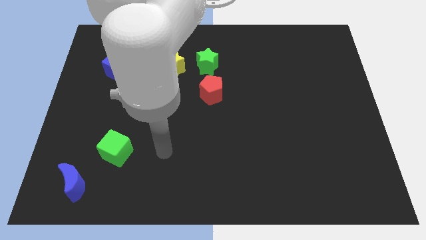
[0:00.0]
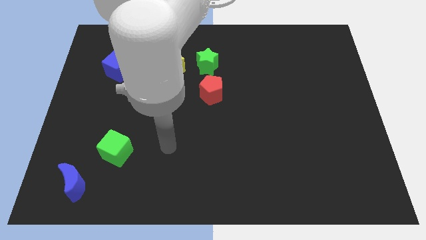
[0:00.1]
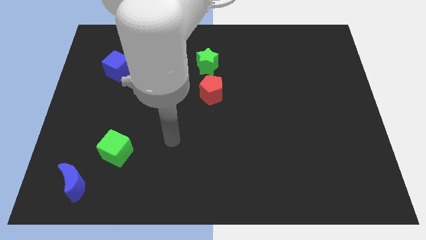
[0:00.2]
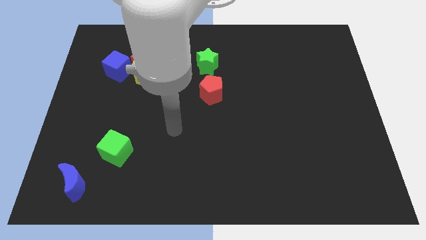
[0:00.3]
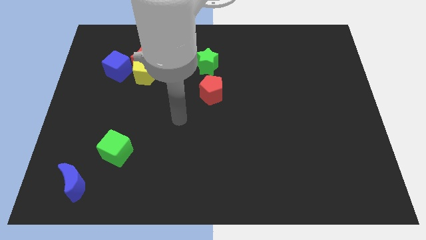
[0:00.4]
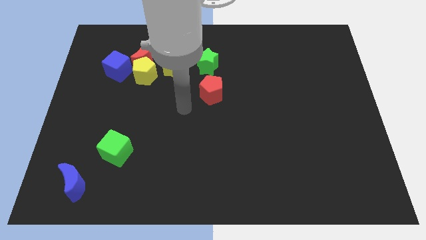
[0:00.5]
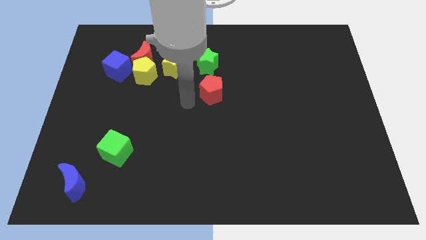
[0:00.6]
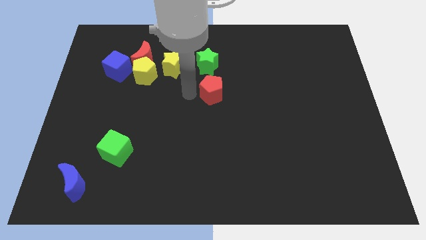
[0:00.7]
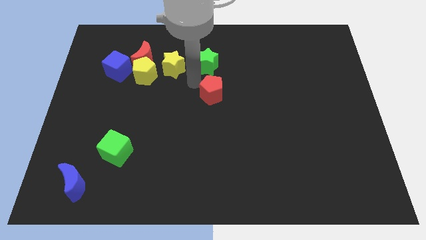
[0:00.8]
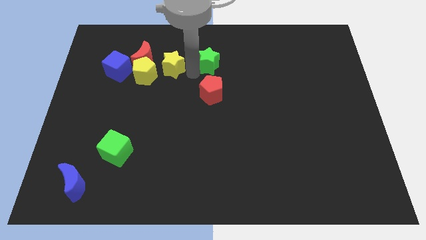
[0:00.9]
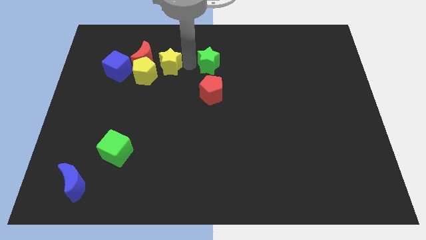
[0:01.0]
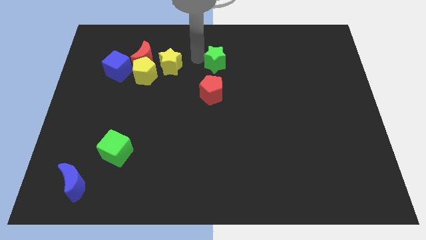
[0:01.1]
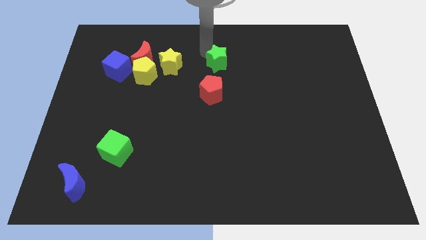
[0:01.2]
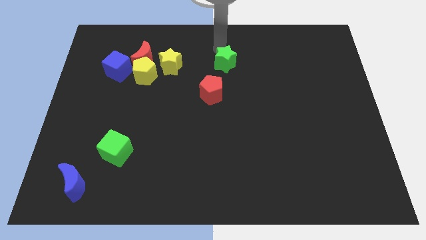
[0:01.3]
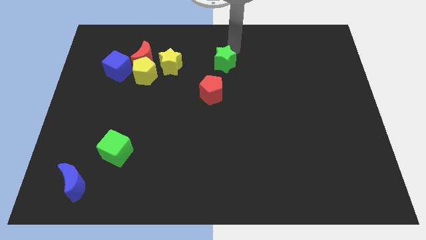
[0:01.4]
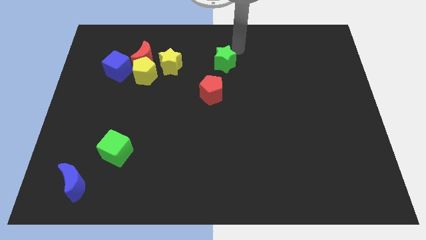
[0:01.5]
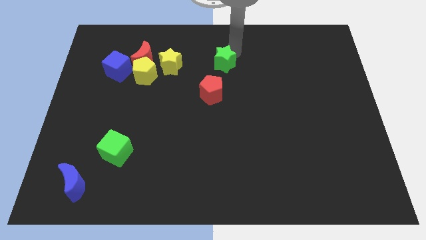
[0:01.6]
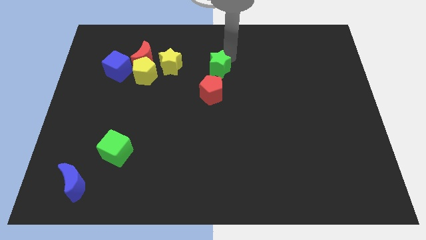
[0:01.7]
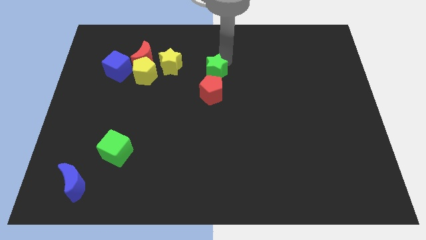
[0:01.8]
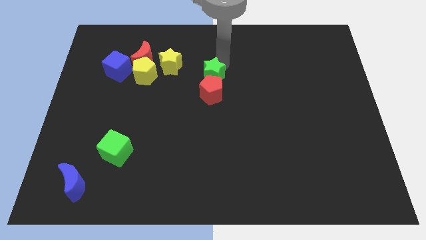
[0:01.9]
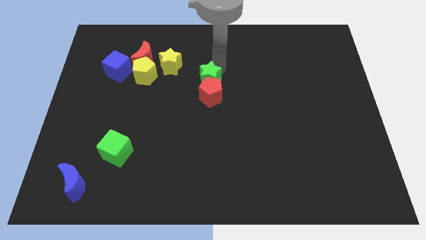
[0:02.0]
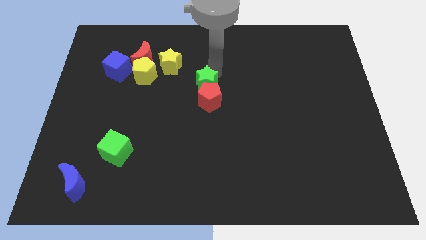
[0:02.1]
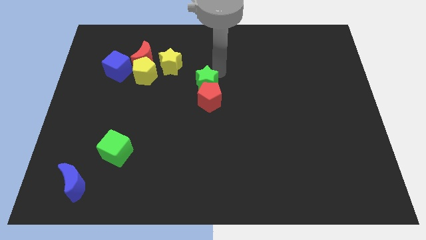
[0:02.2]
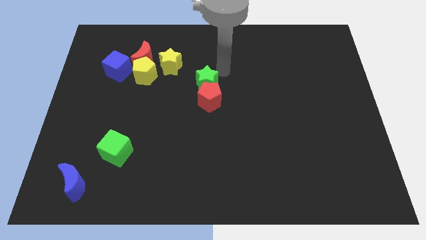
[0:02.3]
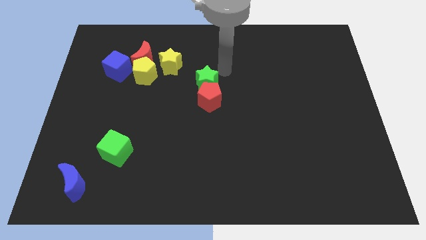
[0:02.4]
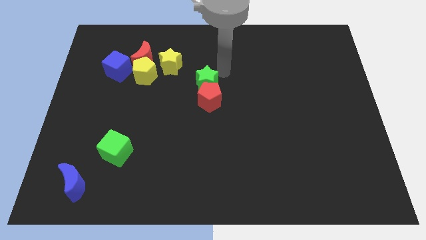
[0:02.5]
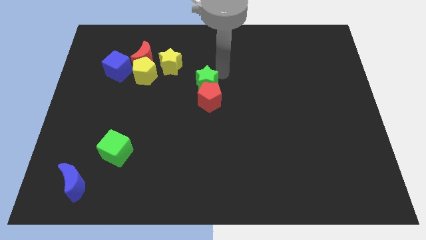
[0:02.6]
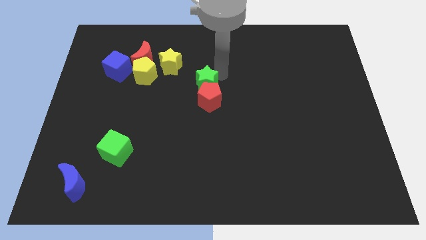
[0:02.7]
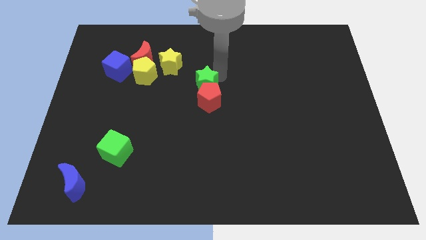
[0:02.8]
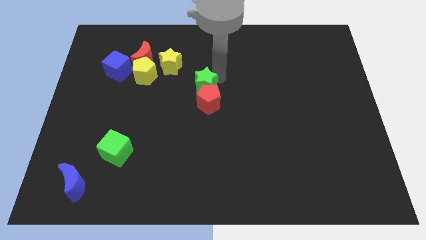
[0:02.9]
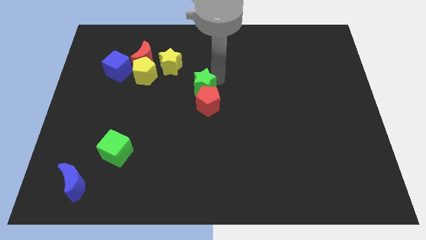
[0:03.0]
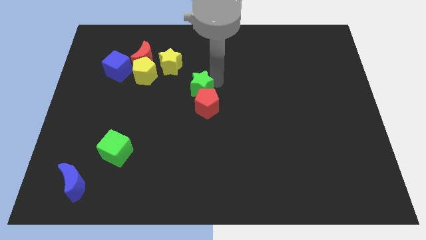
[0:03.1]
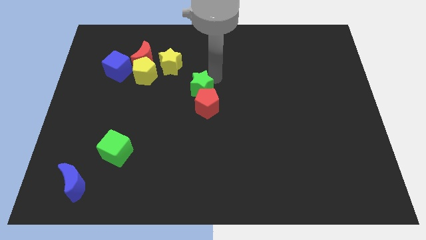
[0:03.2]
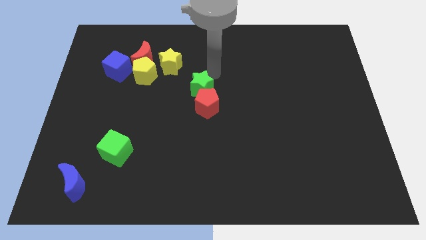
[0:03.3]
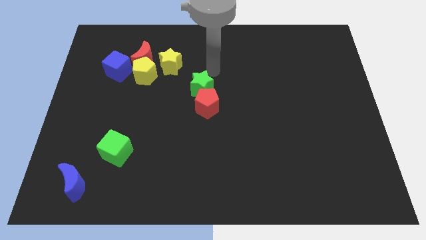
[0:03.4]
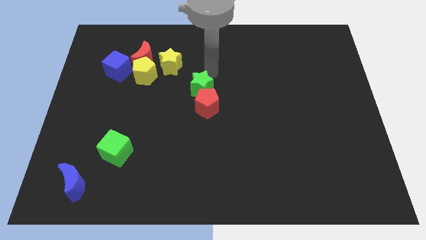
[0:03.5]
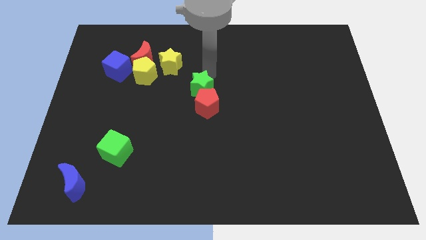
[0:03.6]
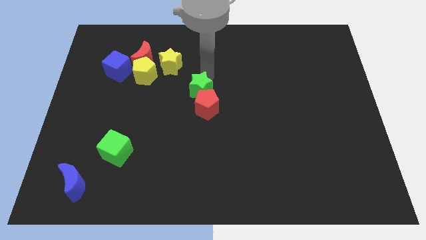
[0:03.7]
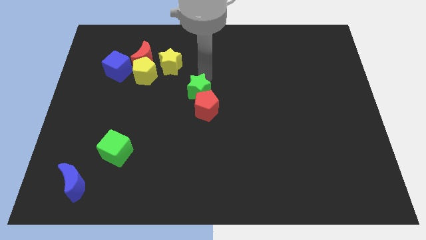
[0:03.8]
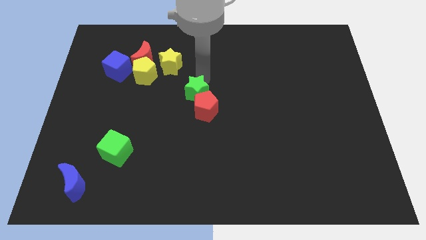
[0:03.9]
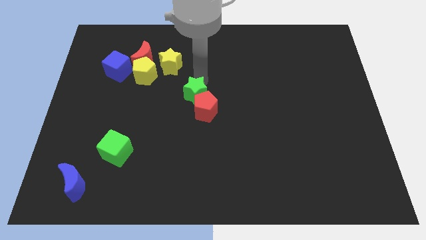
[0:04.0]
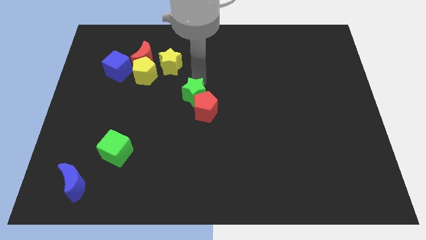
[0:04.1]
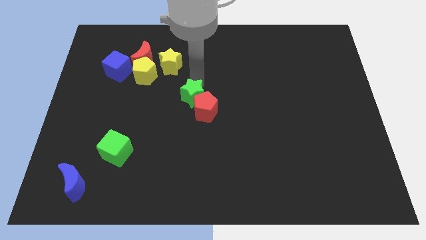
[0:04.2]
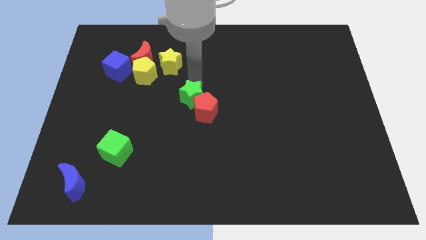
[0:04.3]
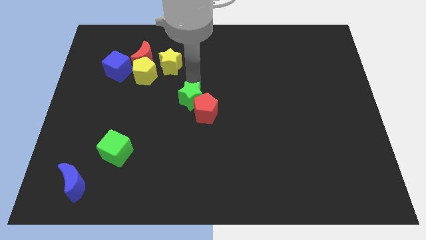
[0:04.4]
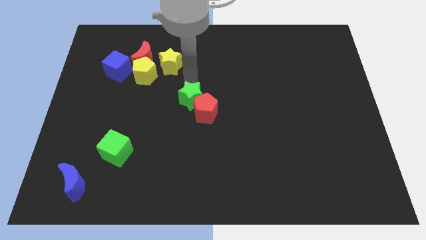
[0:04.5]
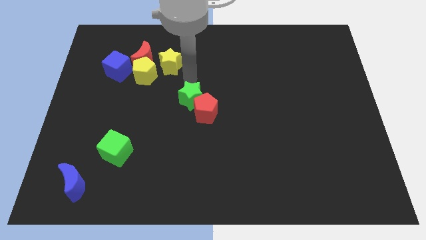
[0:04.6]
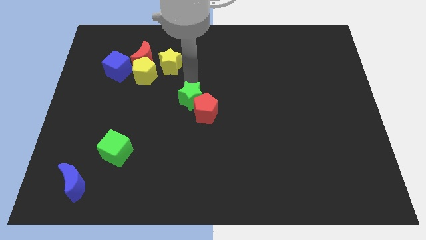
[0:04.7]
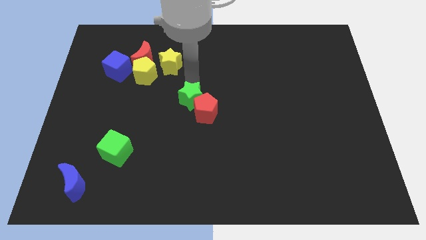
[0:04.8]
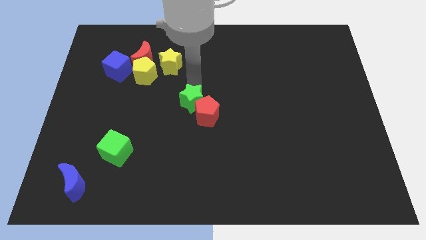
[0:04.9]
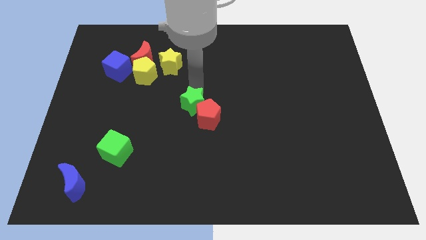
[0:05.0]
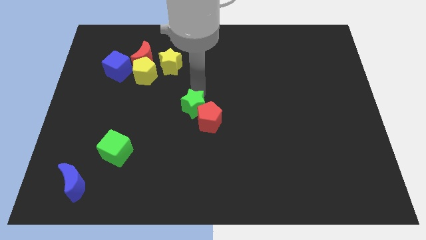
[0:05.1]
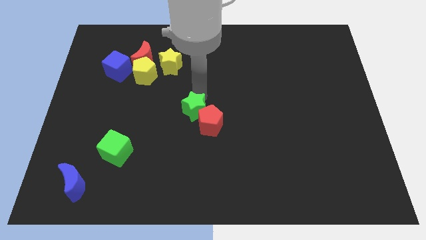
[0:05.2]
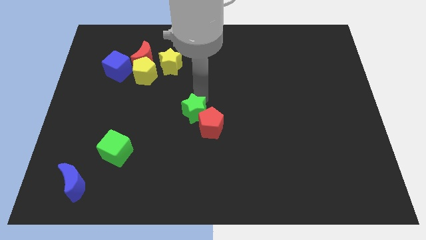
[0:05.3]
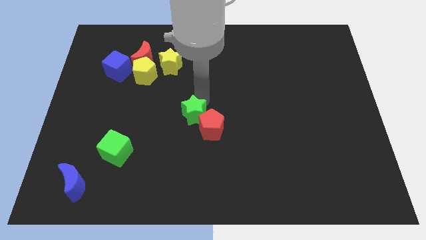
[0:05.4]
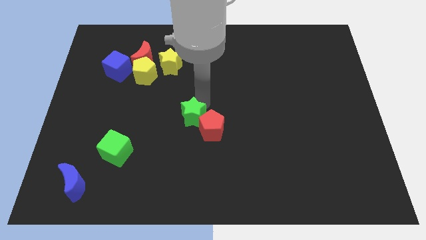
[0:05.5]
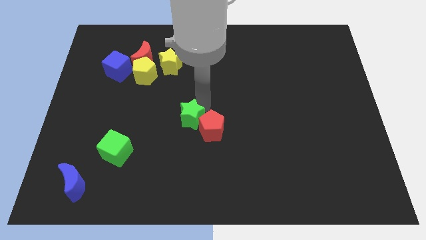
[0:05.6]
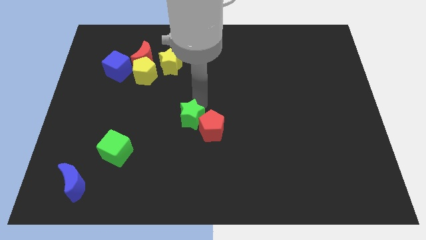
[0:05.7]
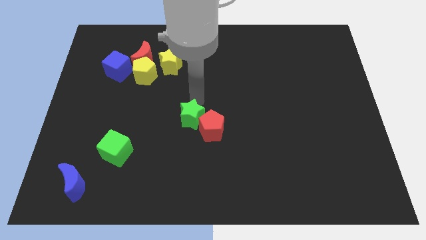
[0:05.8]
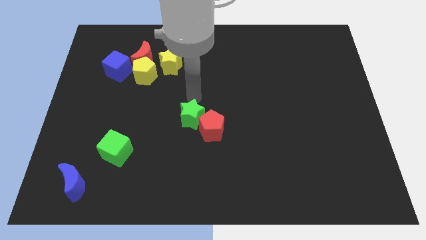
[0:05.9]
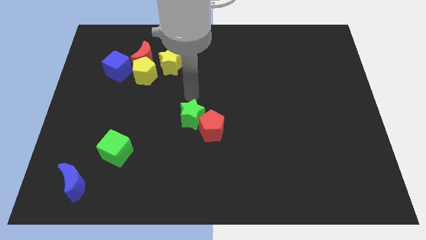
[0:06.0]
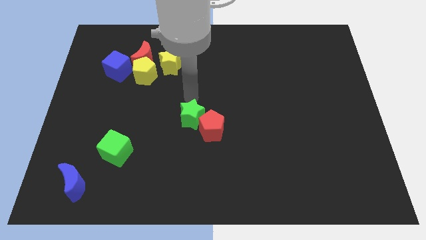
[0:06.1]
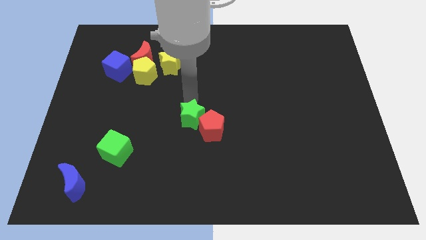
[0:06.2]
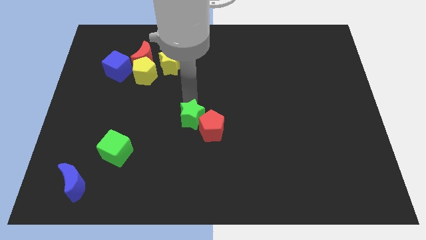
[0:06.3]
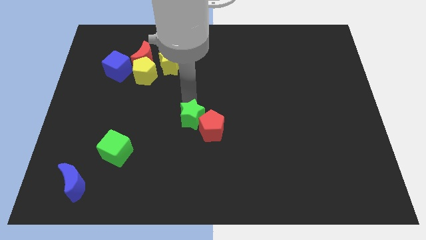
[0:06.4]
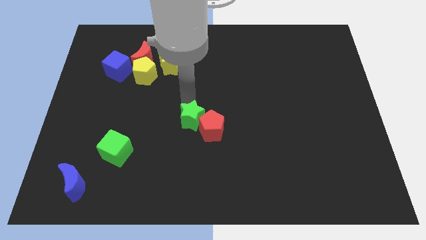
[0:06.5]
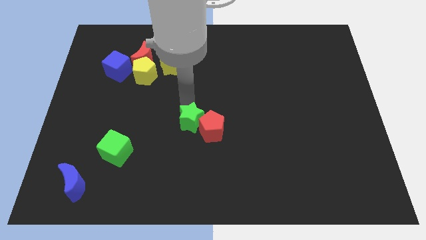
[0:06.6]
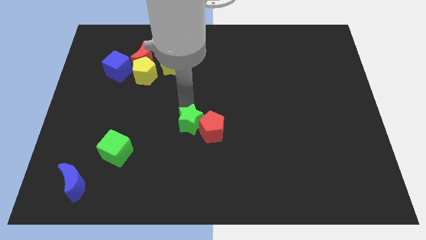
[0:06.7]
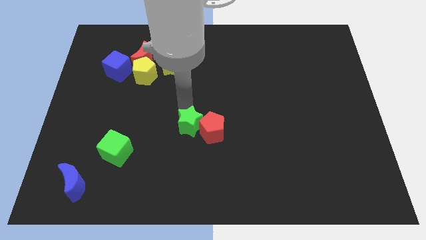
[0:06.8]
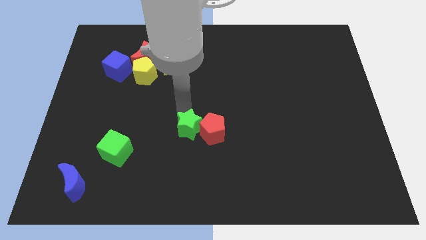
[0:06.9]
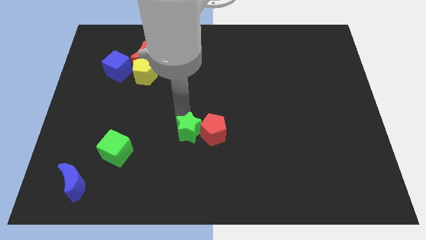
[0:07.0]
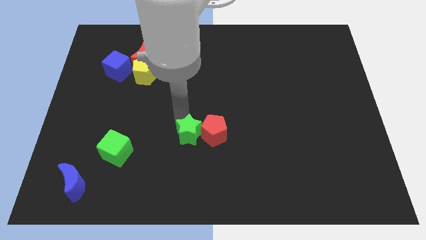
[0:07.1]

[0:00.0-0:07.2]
push the green star downwards

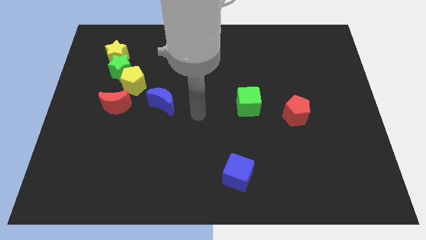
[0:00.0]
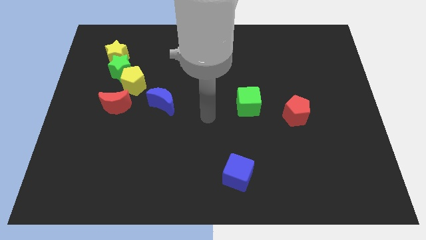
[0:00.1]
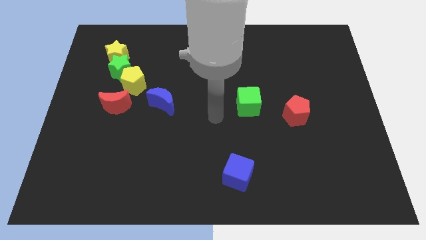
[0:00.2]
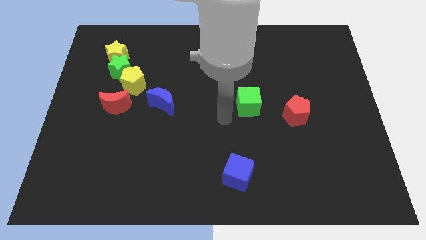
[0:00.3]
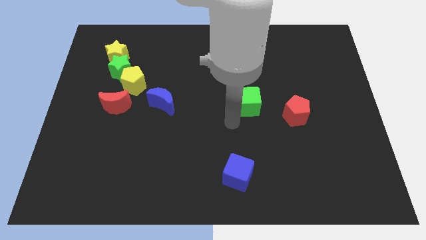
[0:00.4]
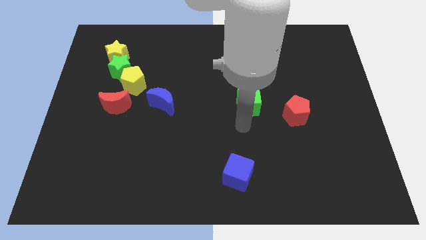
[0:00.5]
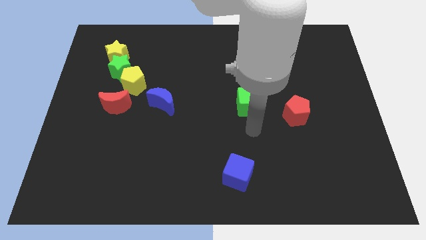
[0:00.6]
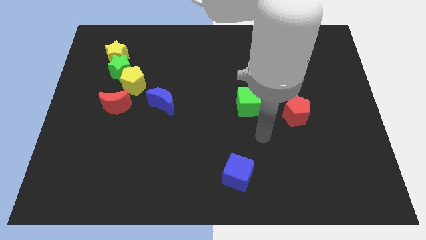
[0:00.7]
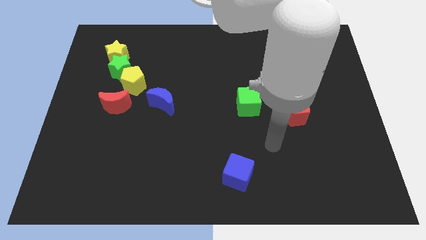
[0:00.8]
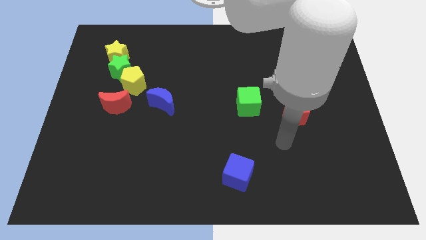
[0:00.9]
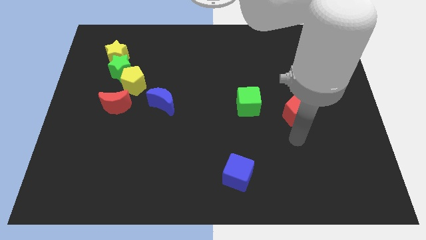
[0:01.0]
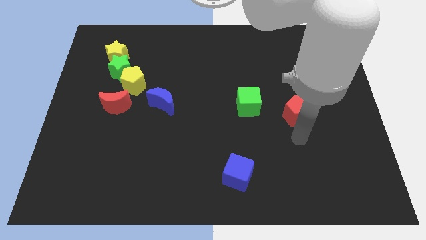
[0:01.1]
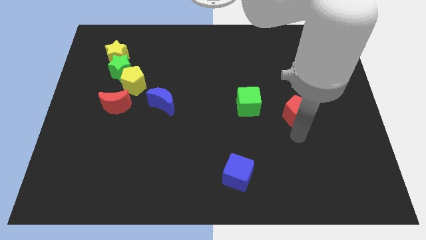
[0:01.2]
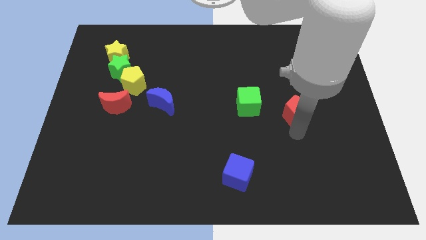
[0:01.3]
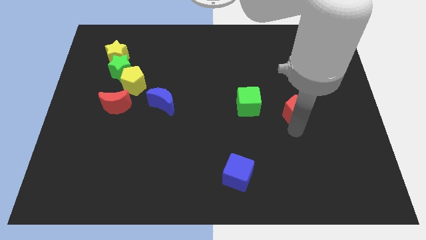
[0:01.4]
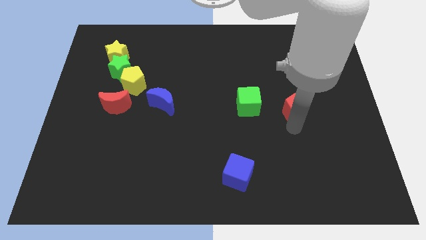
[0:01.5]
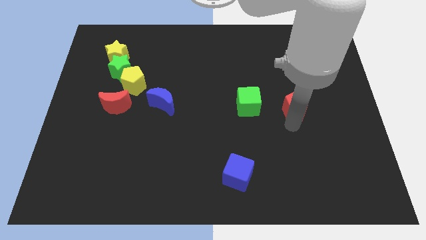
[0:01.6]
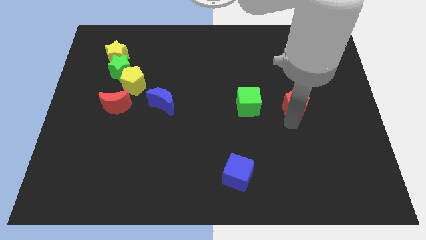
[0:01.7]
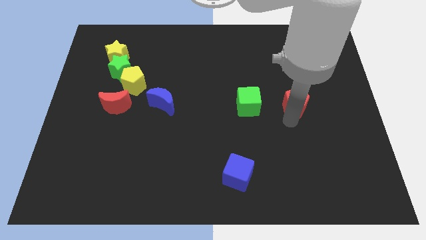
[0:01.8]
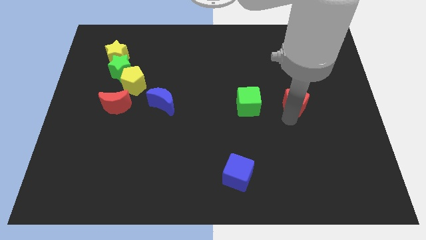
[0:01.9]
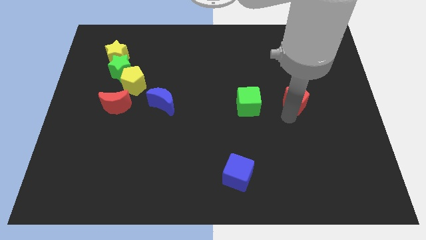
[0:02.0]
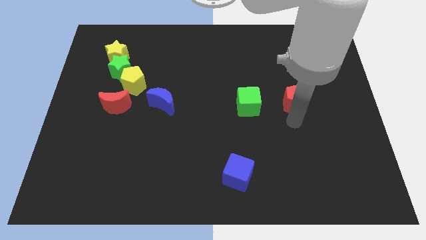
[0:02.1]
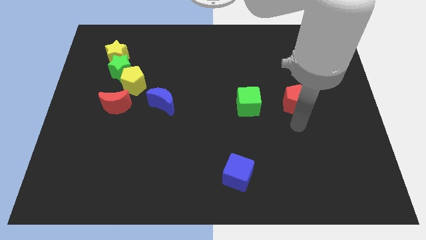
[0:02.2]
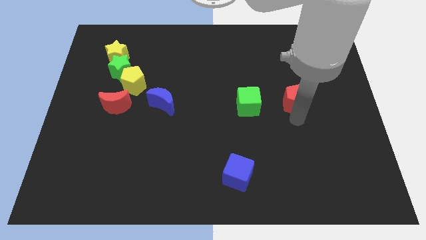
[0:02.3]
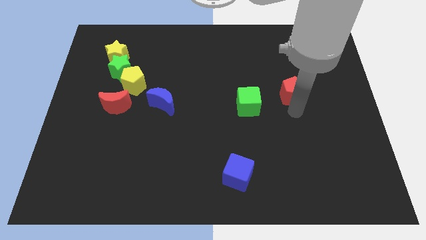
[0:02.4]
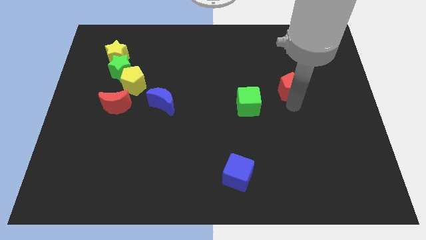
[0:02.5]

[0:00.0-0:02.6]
push the red pentagon up somewhat
